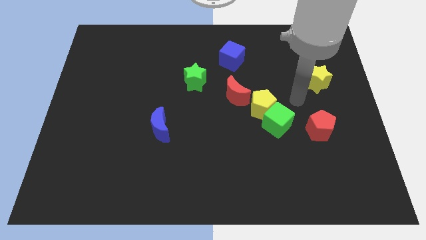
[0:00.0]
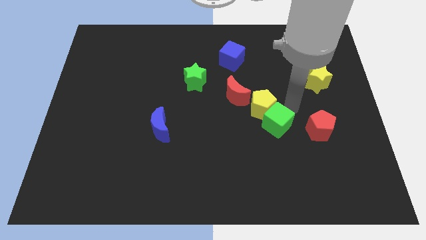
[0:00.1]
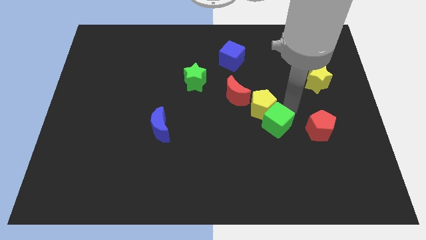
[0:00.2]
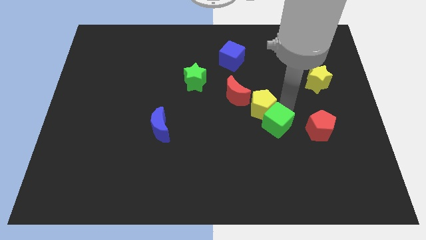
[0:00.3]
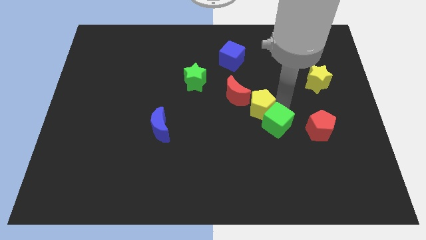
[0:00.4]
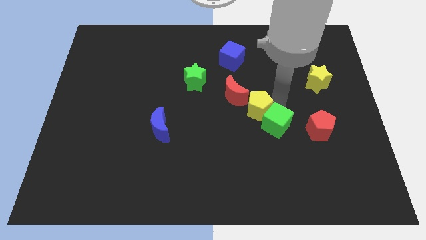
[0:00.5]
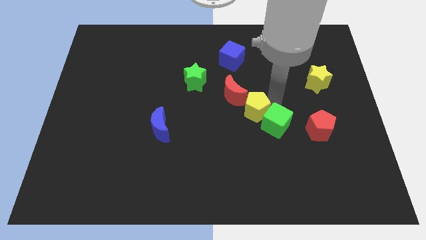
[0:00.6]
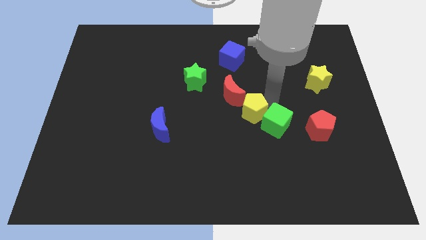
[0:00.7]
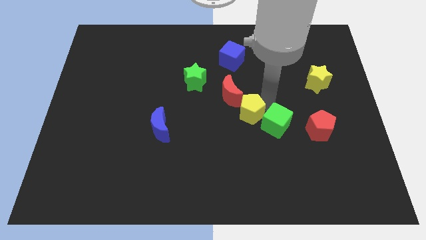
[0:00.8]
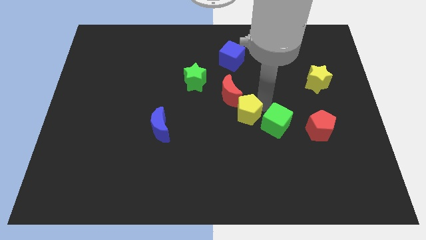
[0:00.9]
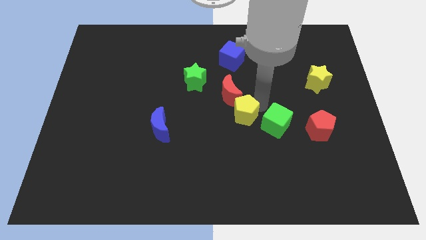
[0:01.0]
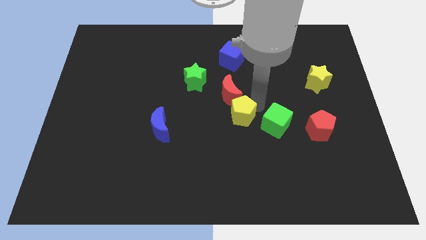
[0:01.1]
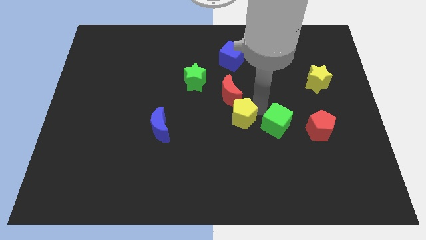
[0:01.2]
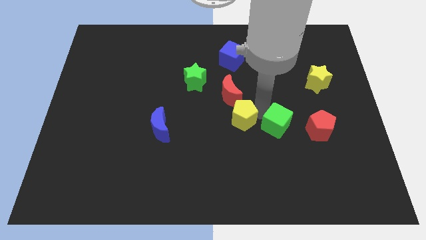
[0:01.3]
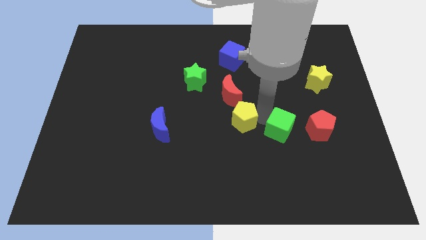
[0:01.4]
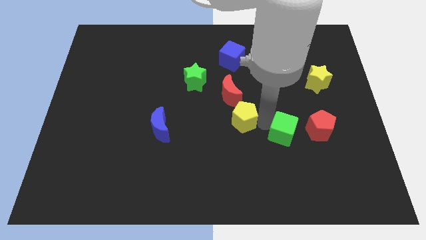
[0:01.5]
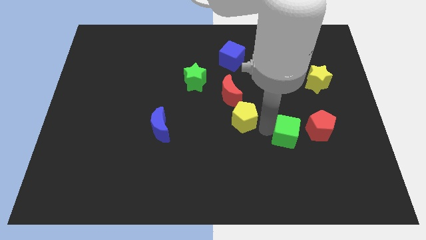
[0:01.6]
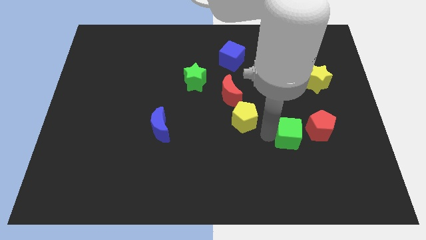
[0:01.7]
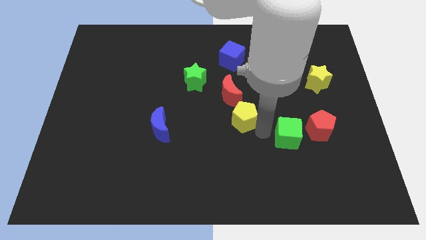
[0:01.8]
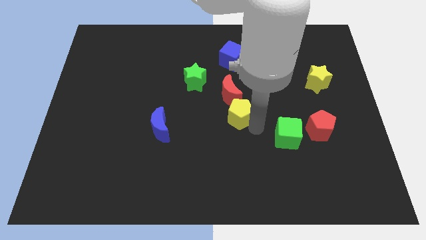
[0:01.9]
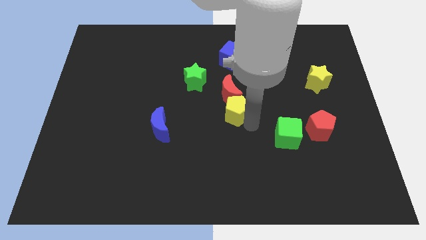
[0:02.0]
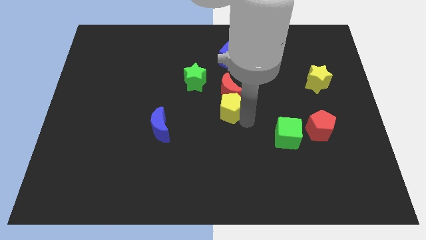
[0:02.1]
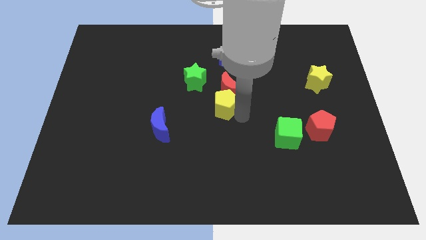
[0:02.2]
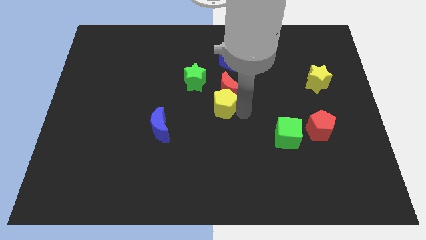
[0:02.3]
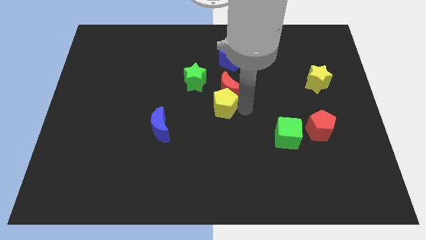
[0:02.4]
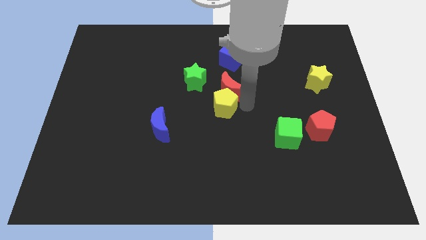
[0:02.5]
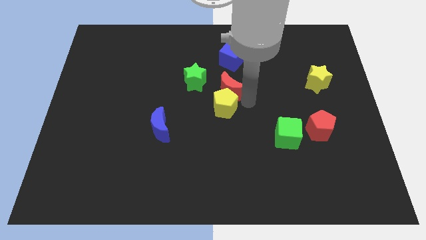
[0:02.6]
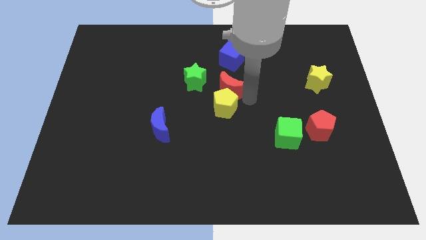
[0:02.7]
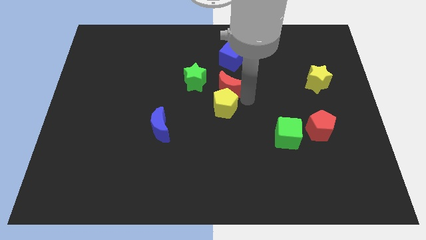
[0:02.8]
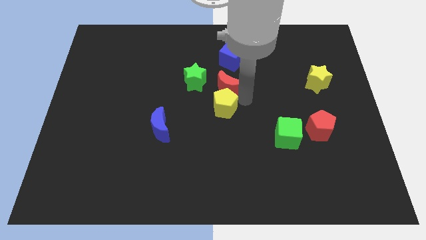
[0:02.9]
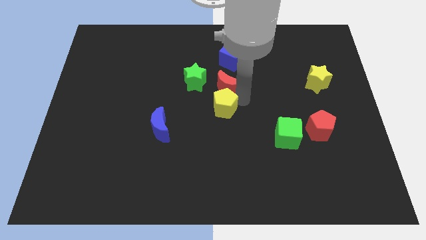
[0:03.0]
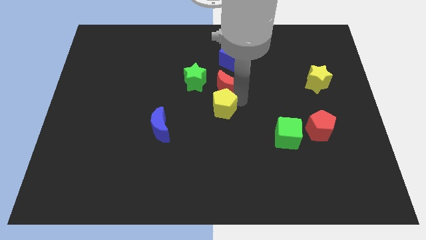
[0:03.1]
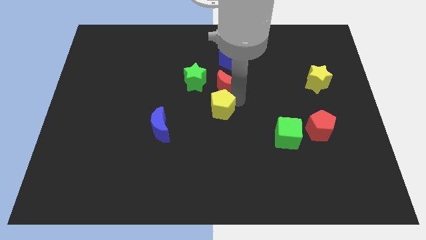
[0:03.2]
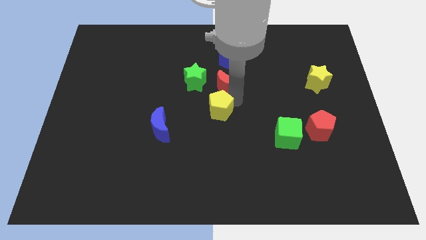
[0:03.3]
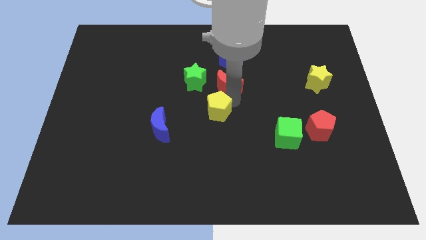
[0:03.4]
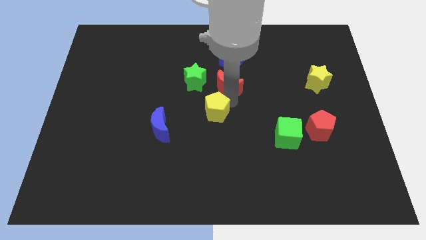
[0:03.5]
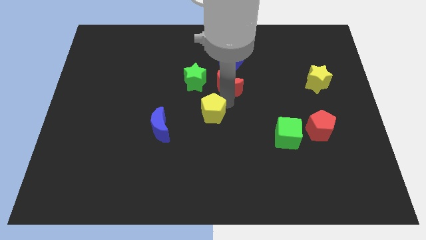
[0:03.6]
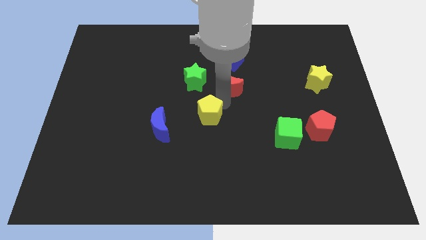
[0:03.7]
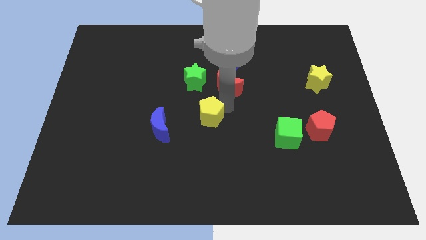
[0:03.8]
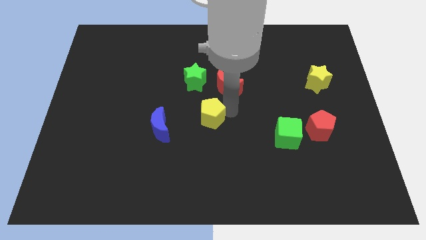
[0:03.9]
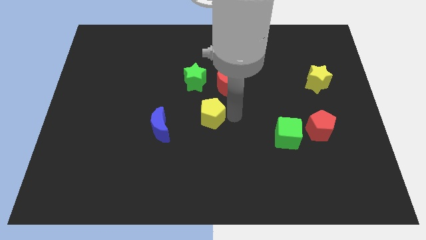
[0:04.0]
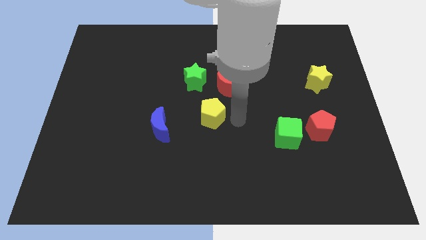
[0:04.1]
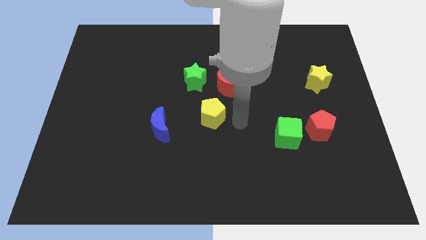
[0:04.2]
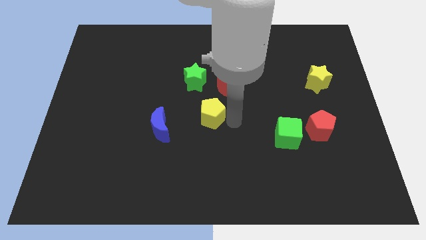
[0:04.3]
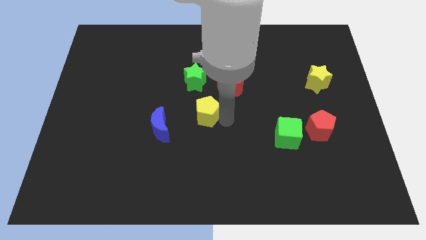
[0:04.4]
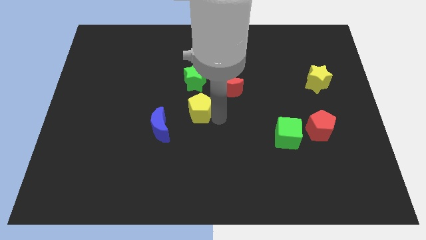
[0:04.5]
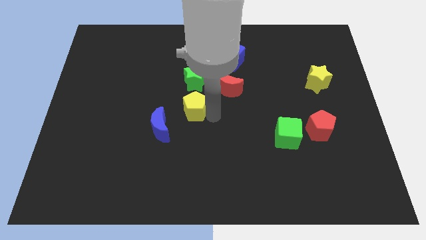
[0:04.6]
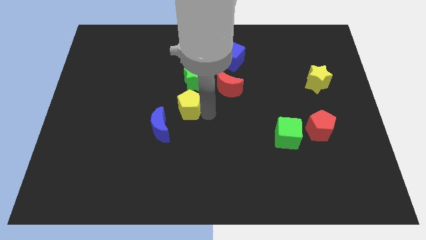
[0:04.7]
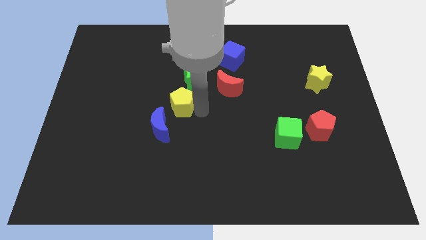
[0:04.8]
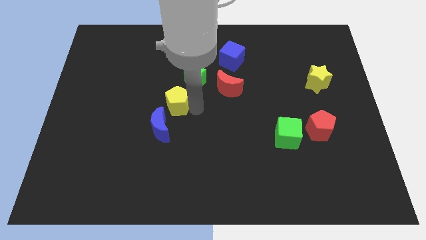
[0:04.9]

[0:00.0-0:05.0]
slide the yellow pentagon to the left

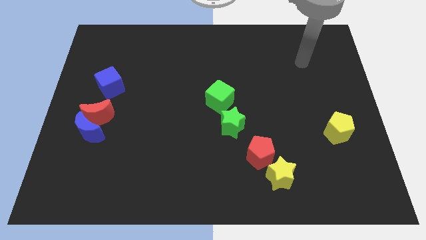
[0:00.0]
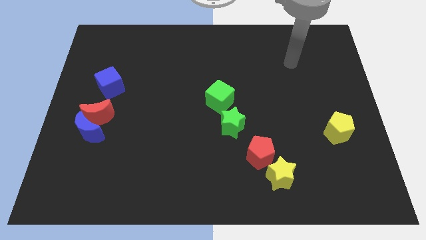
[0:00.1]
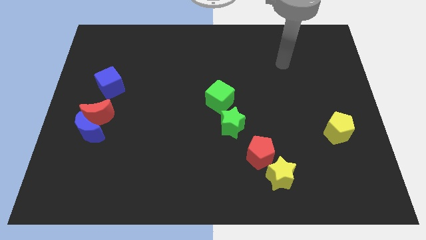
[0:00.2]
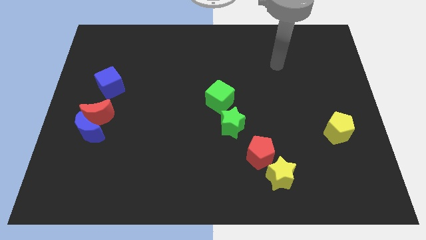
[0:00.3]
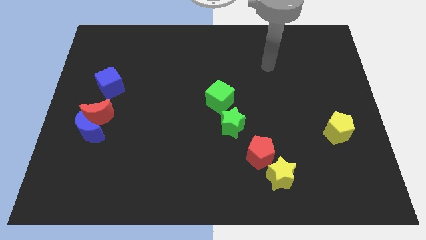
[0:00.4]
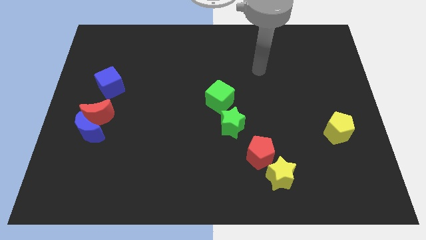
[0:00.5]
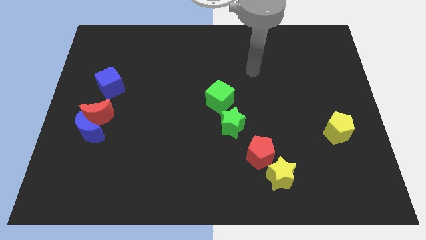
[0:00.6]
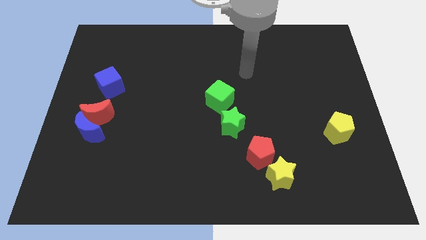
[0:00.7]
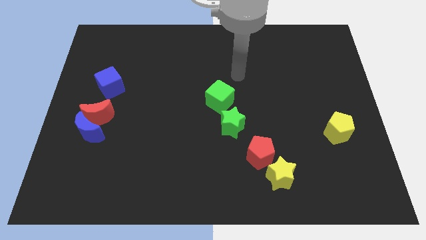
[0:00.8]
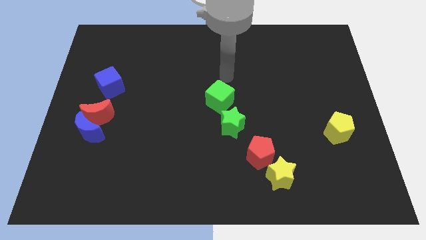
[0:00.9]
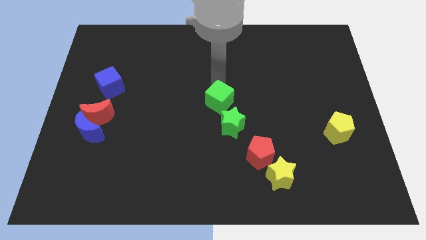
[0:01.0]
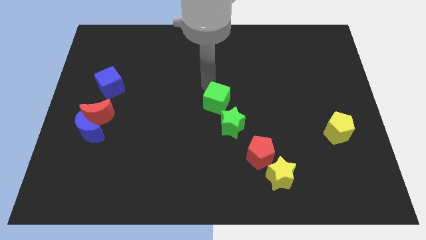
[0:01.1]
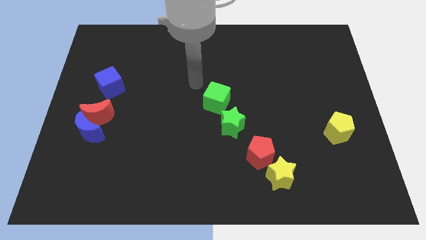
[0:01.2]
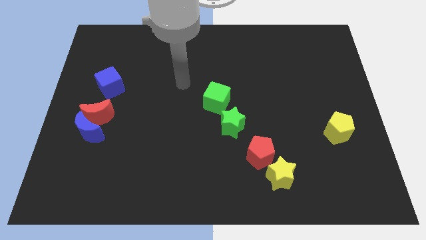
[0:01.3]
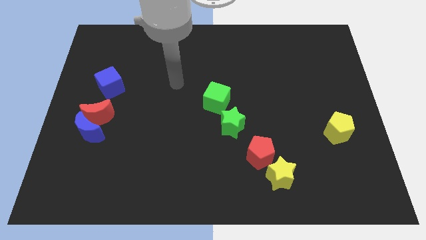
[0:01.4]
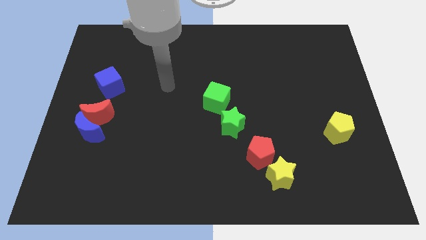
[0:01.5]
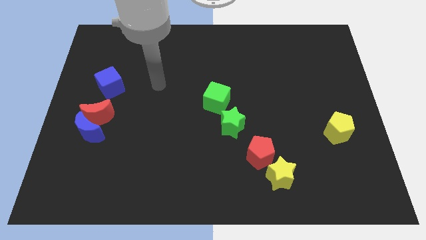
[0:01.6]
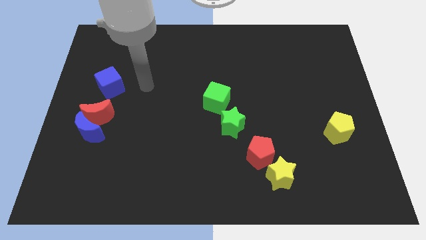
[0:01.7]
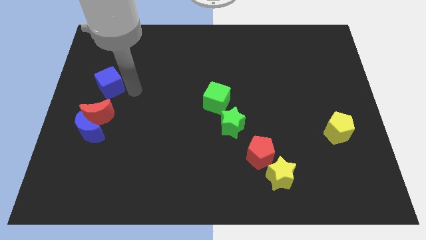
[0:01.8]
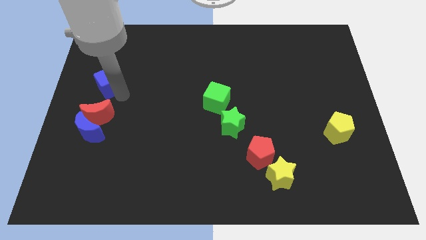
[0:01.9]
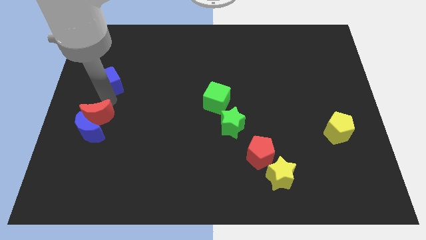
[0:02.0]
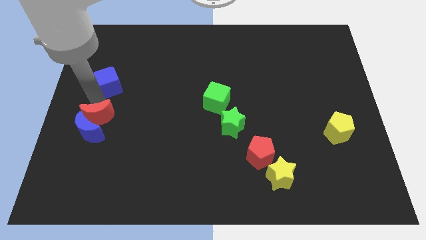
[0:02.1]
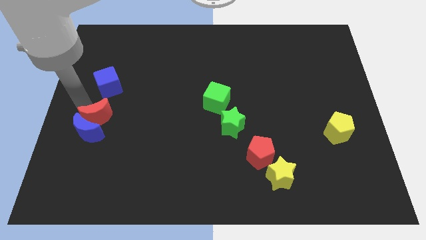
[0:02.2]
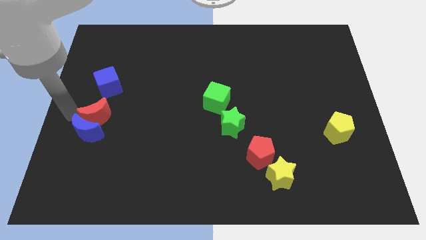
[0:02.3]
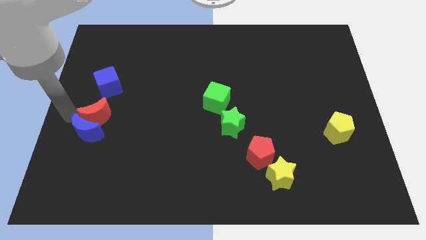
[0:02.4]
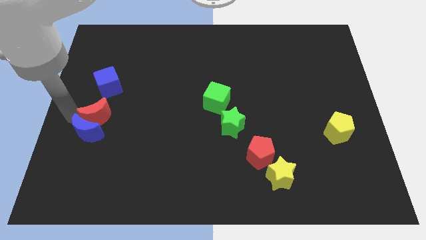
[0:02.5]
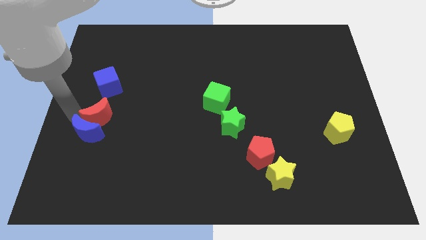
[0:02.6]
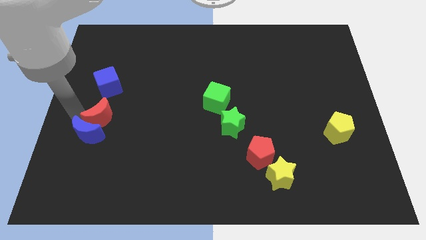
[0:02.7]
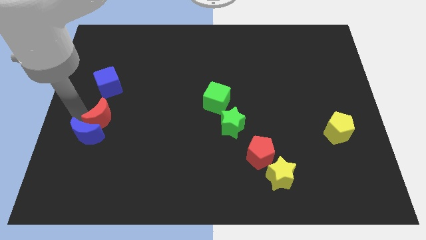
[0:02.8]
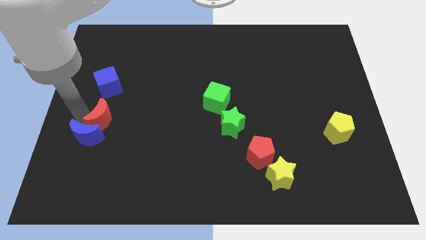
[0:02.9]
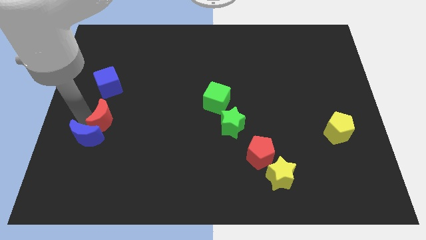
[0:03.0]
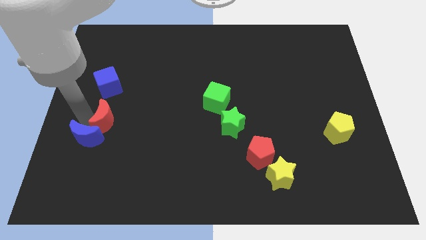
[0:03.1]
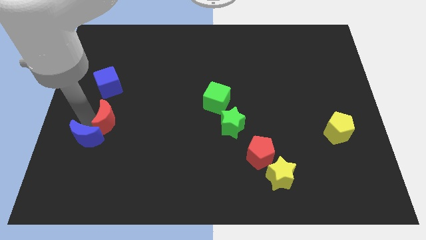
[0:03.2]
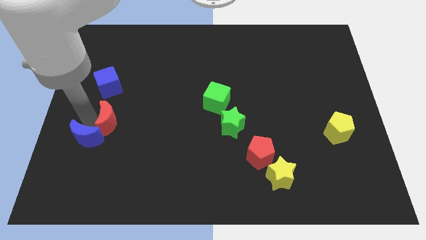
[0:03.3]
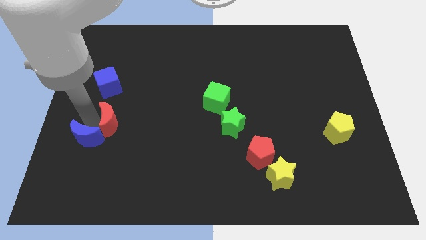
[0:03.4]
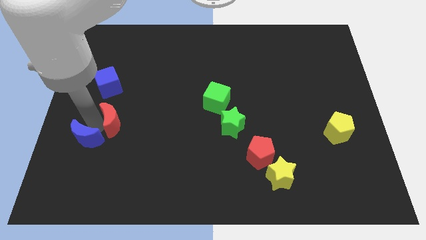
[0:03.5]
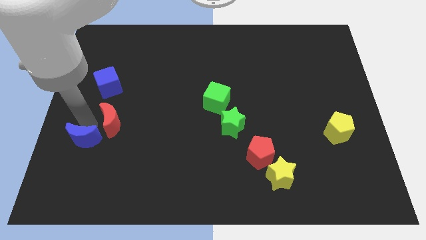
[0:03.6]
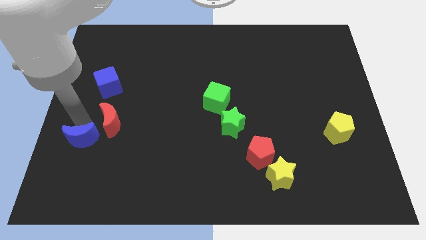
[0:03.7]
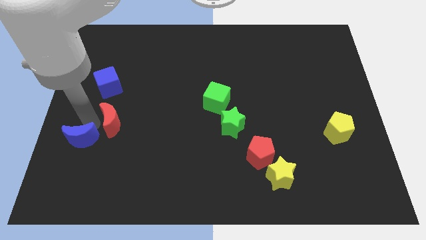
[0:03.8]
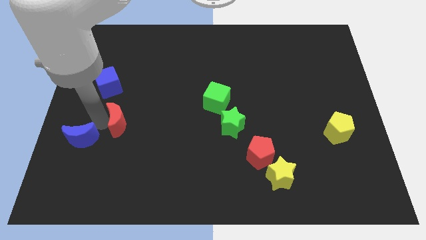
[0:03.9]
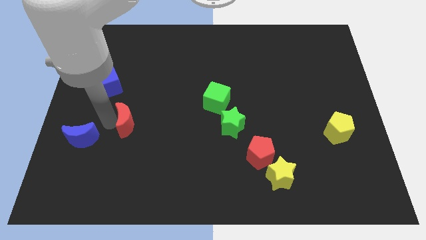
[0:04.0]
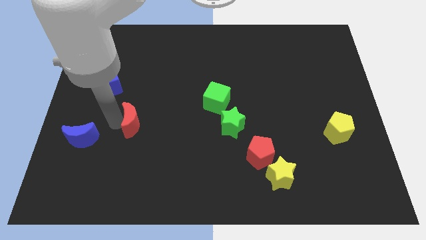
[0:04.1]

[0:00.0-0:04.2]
move the red moon a bit right
